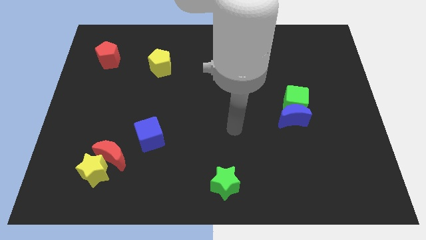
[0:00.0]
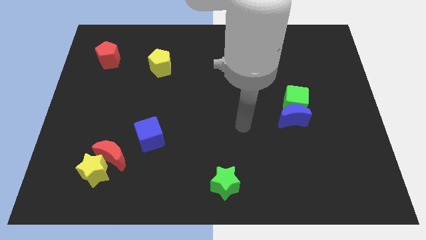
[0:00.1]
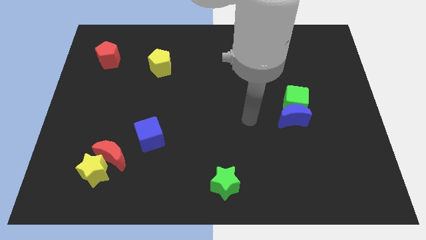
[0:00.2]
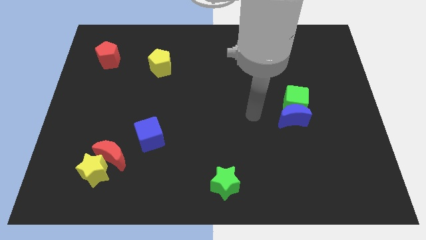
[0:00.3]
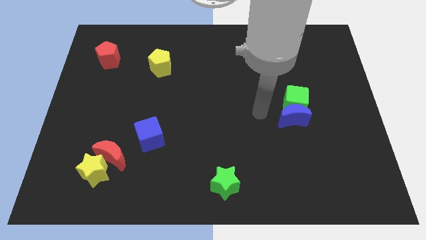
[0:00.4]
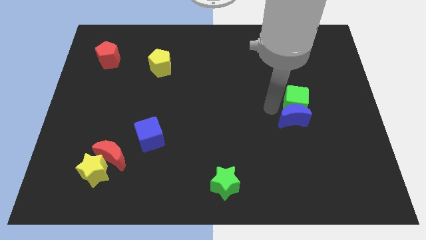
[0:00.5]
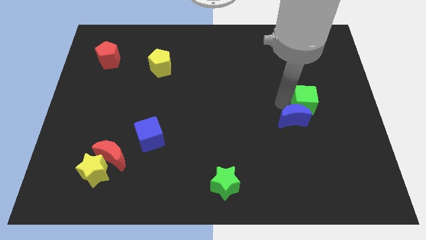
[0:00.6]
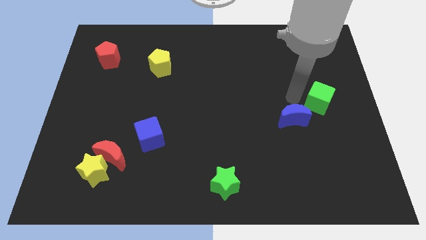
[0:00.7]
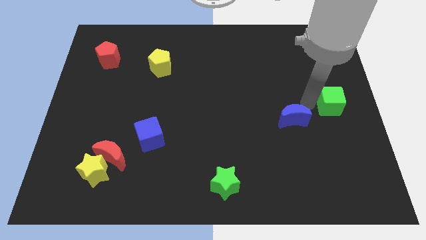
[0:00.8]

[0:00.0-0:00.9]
move the blue moon away from the green cube

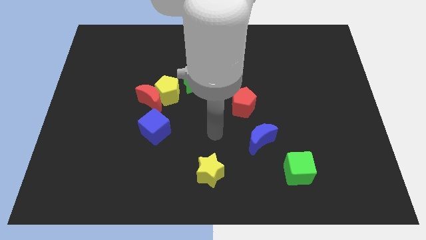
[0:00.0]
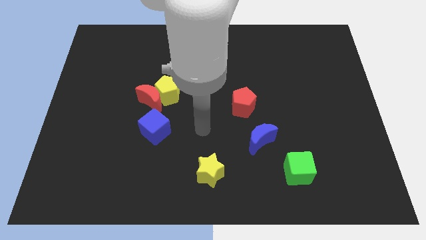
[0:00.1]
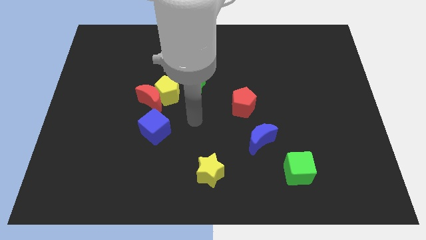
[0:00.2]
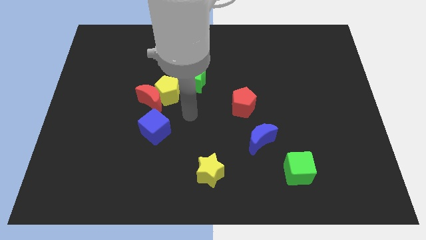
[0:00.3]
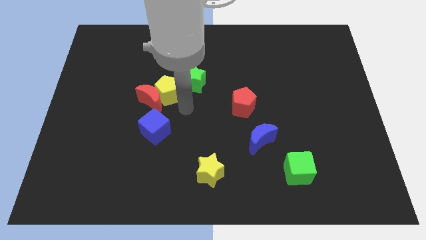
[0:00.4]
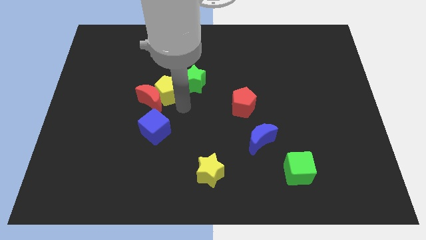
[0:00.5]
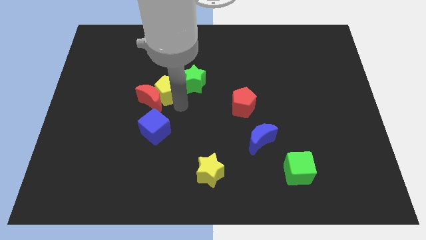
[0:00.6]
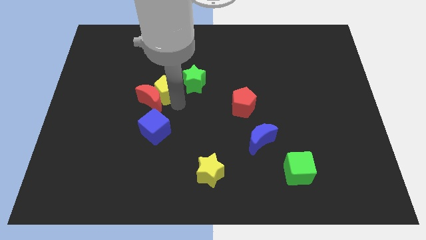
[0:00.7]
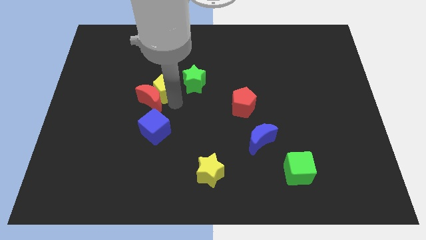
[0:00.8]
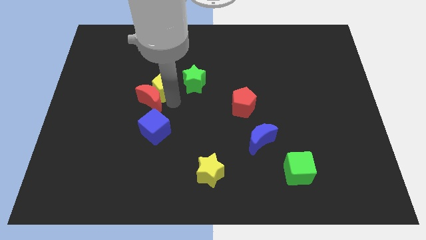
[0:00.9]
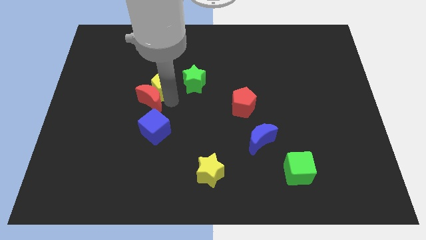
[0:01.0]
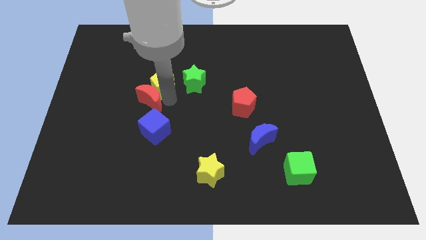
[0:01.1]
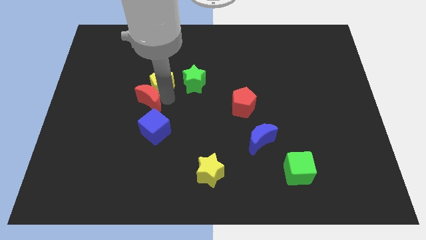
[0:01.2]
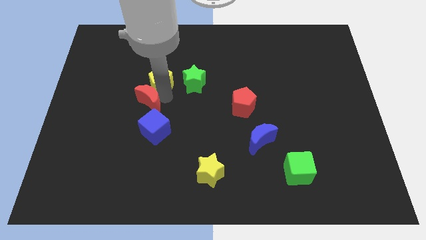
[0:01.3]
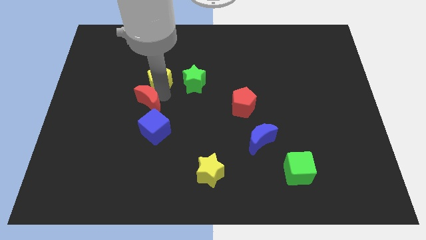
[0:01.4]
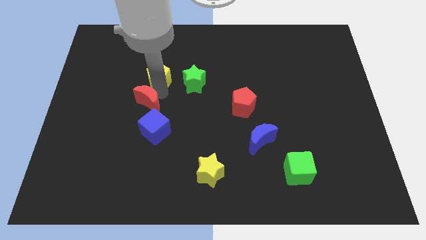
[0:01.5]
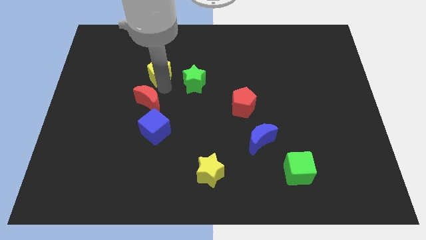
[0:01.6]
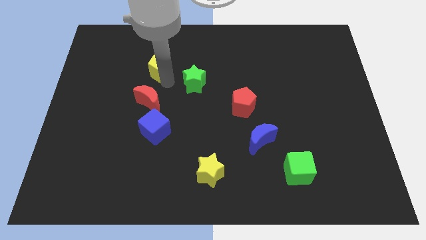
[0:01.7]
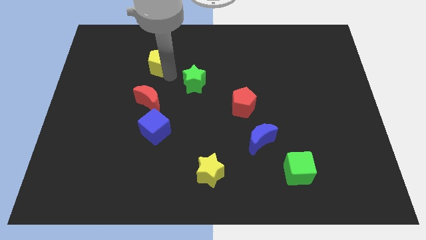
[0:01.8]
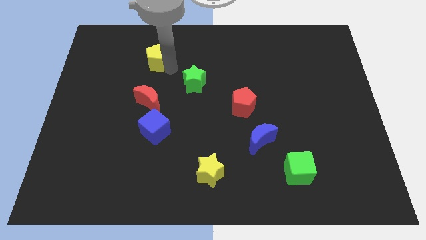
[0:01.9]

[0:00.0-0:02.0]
separate the yellow pentagon from the red moon and green star

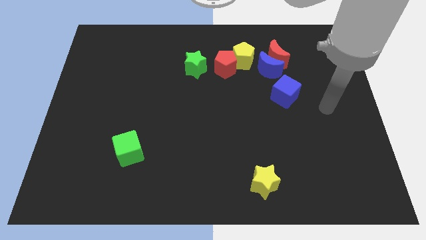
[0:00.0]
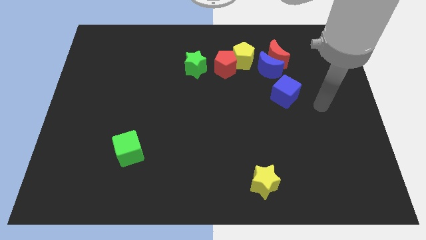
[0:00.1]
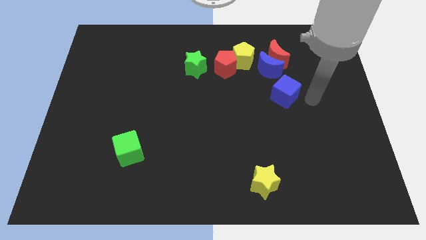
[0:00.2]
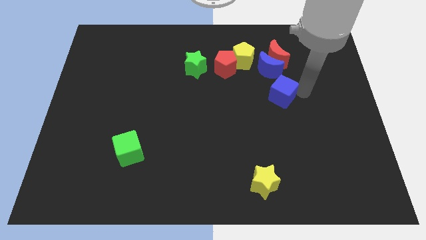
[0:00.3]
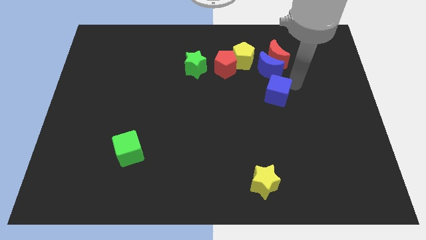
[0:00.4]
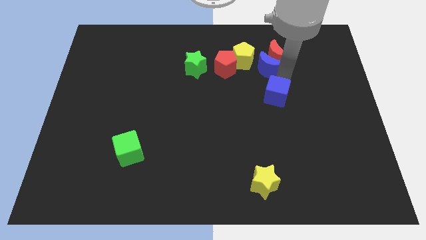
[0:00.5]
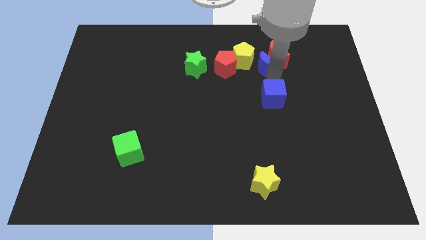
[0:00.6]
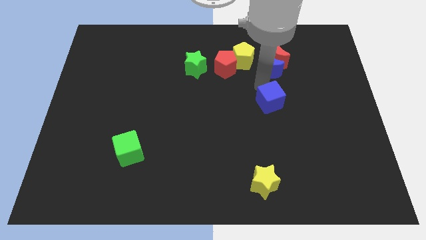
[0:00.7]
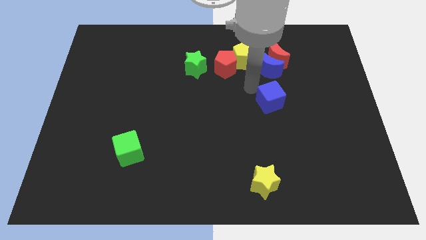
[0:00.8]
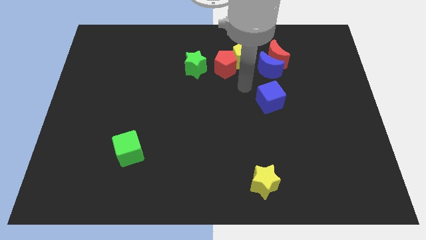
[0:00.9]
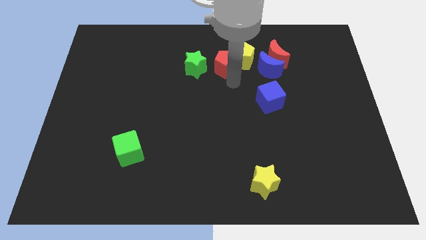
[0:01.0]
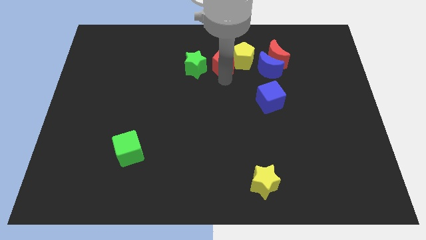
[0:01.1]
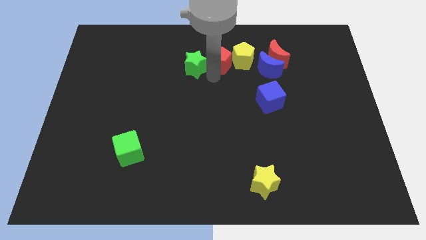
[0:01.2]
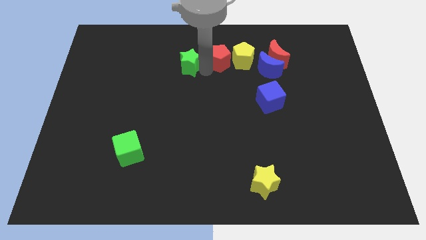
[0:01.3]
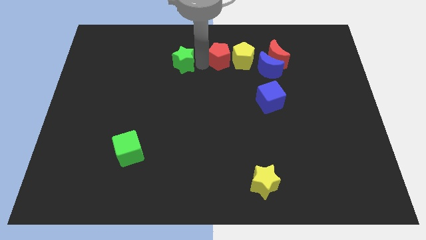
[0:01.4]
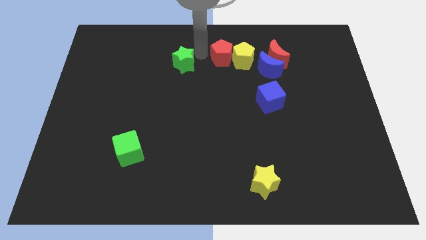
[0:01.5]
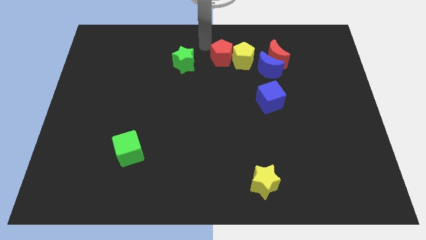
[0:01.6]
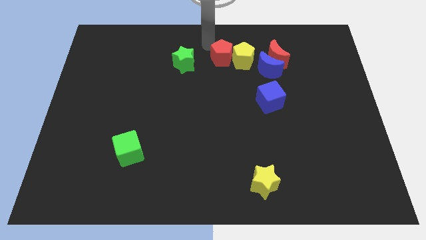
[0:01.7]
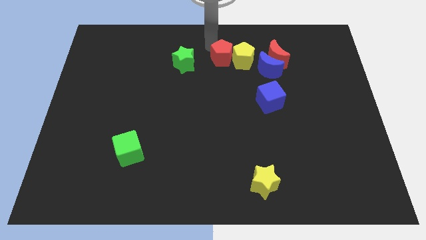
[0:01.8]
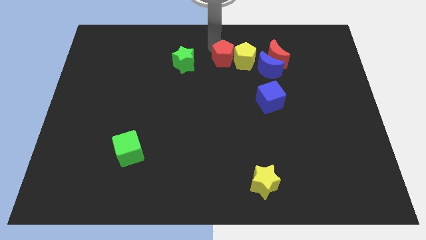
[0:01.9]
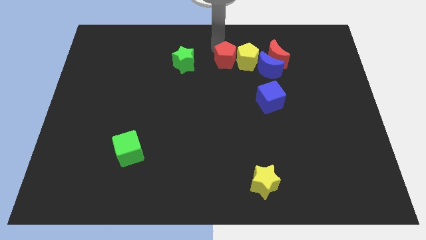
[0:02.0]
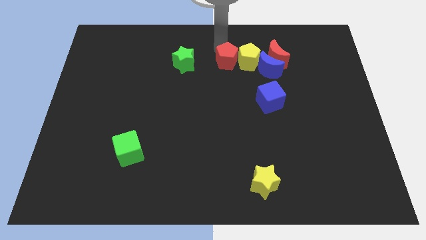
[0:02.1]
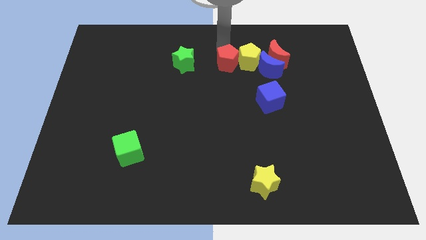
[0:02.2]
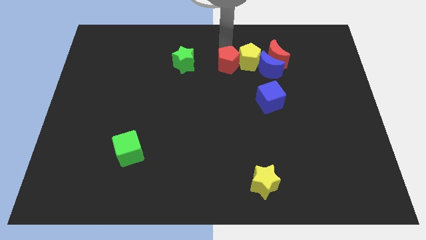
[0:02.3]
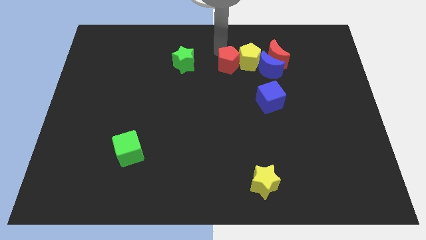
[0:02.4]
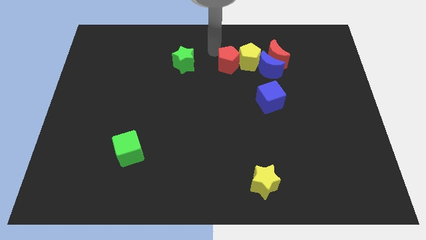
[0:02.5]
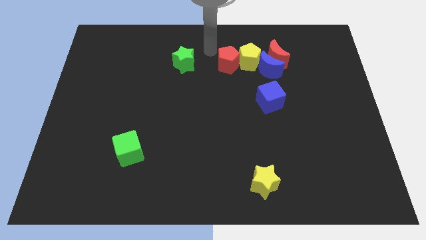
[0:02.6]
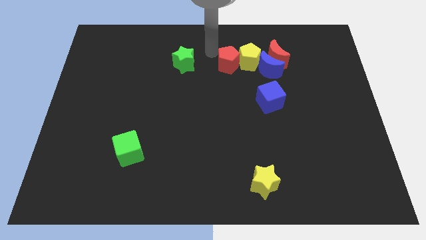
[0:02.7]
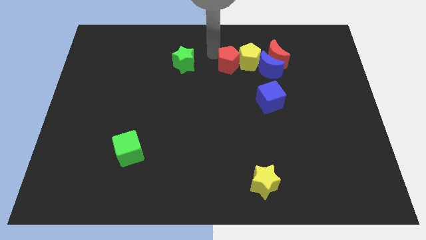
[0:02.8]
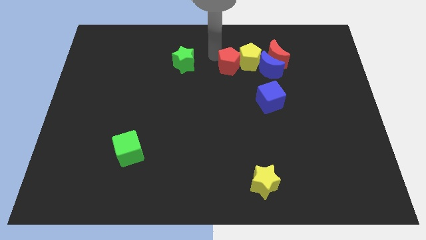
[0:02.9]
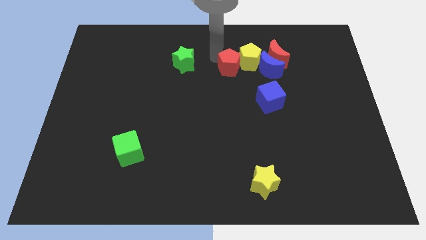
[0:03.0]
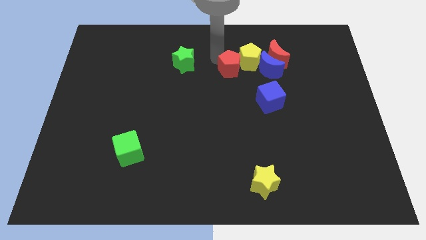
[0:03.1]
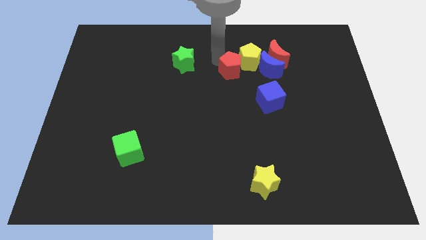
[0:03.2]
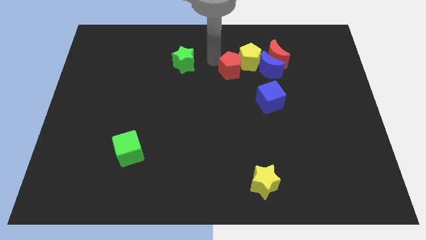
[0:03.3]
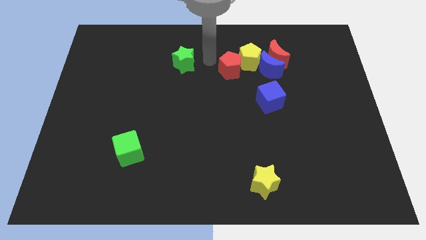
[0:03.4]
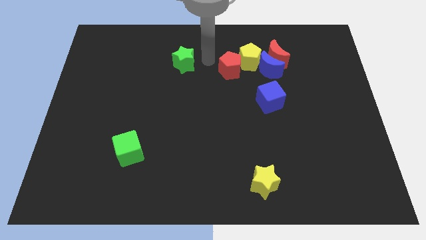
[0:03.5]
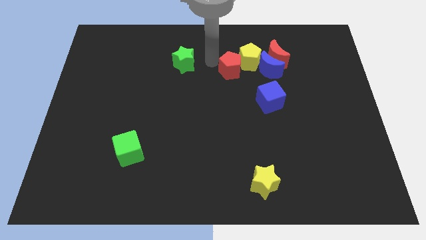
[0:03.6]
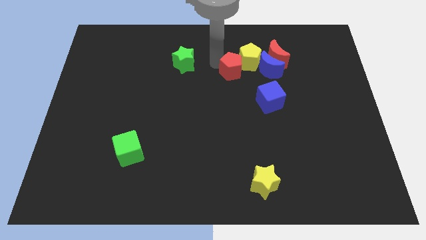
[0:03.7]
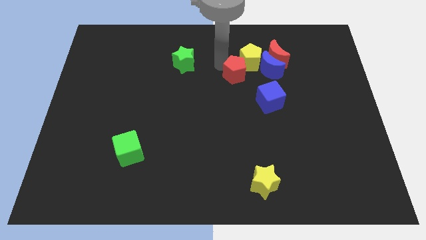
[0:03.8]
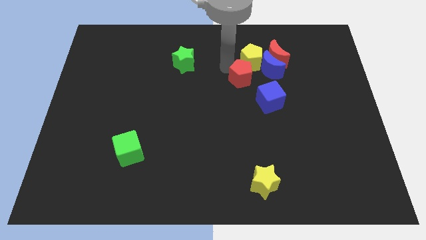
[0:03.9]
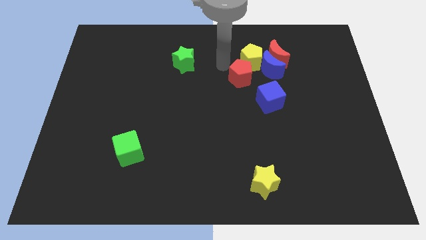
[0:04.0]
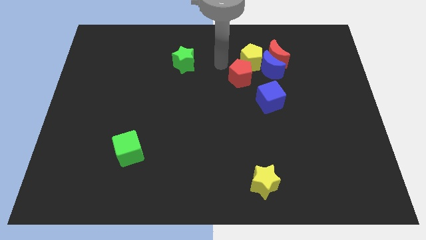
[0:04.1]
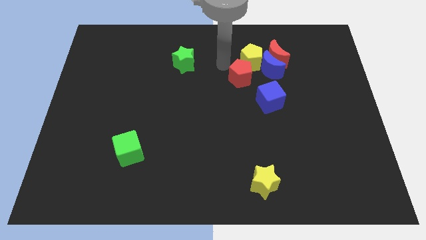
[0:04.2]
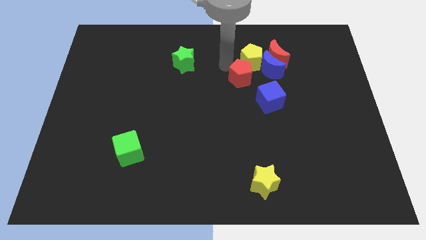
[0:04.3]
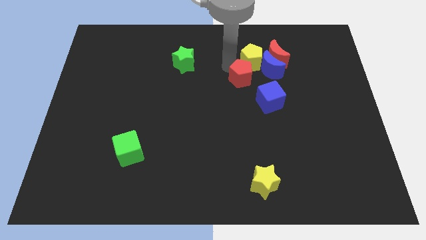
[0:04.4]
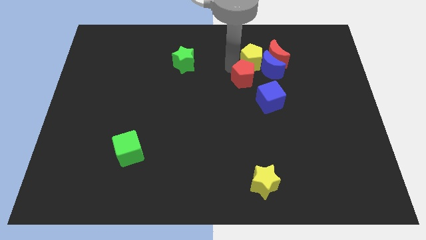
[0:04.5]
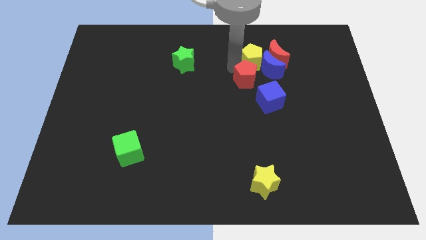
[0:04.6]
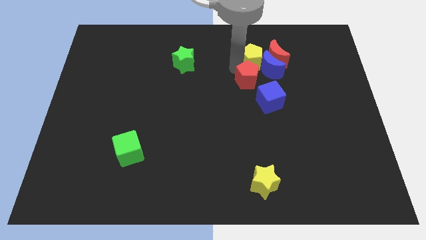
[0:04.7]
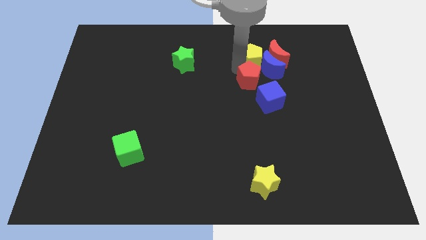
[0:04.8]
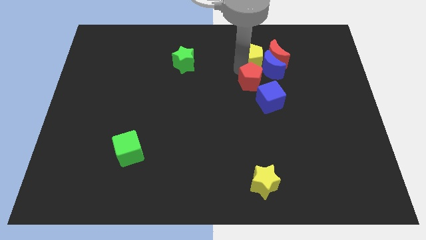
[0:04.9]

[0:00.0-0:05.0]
separate the red pentagon from the yellow pentagon and green star

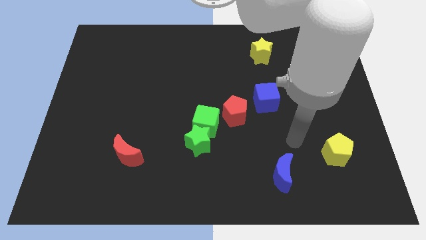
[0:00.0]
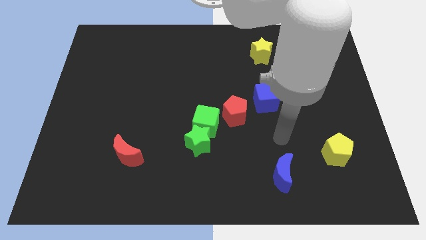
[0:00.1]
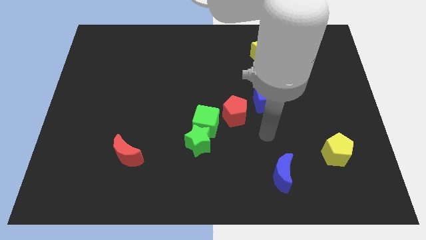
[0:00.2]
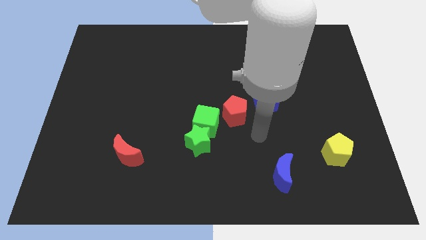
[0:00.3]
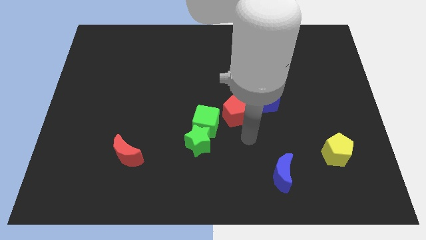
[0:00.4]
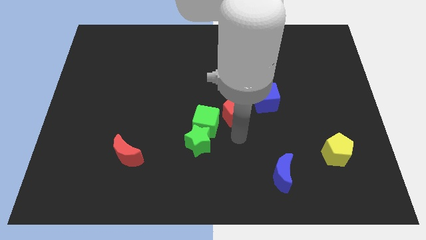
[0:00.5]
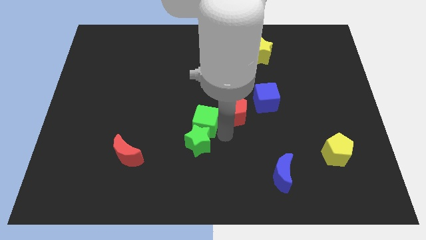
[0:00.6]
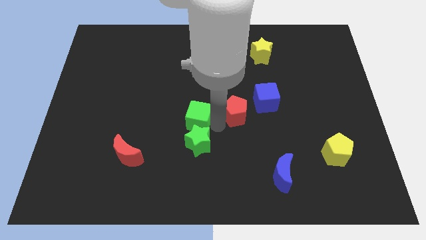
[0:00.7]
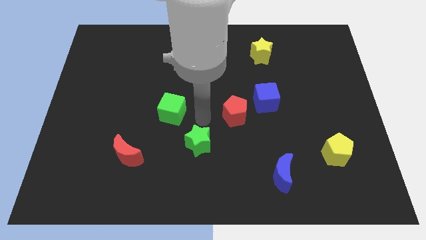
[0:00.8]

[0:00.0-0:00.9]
separate the green star from the green cube

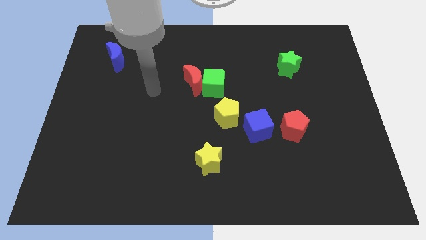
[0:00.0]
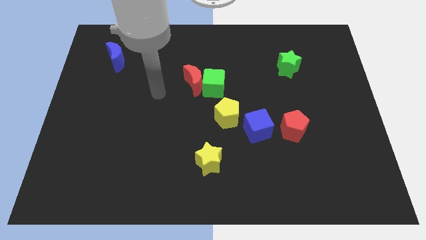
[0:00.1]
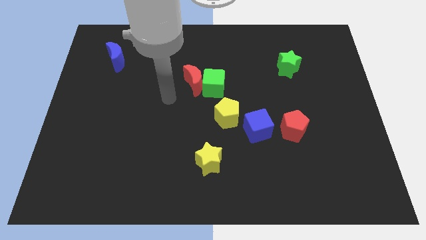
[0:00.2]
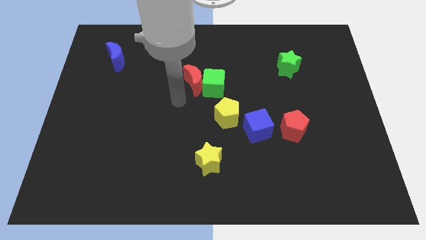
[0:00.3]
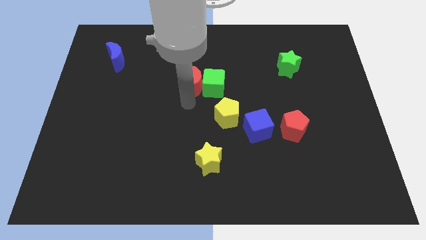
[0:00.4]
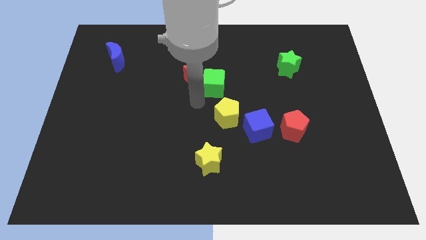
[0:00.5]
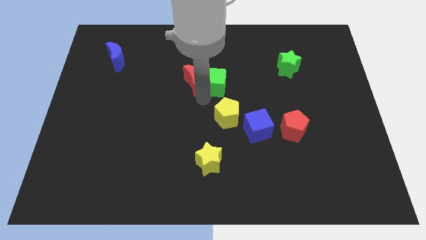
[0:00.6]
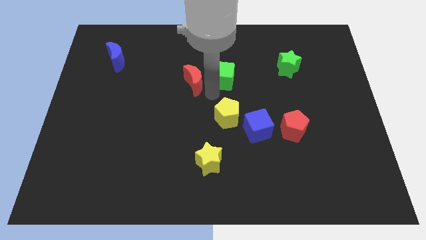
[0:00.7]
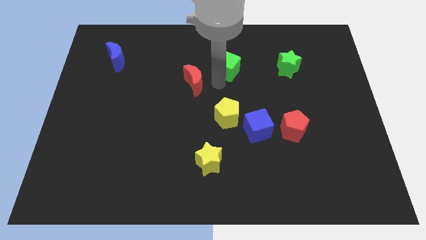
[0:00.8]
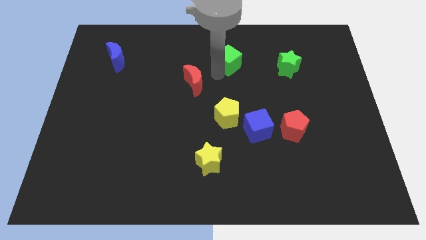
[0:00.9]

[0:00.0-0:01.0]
move the red moon away from the green cube
